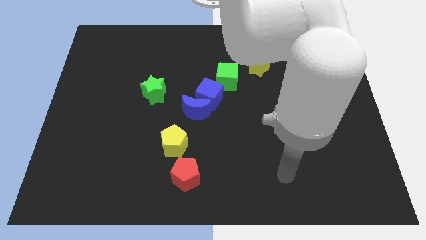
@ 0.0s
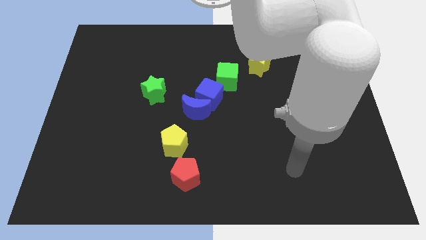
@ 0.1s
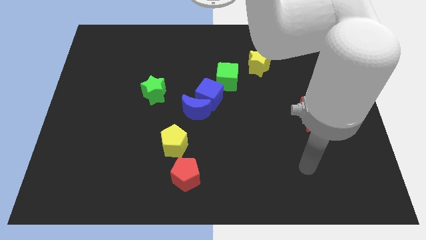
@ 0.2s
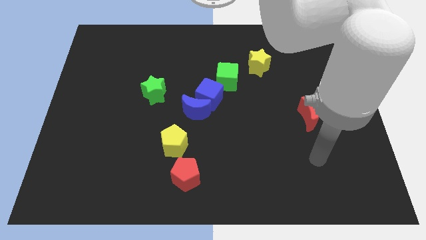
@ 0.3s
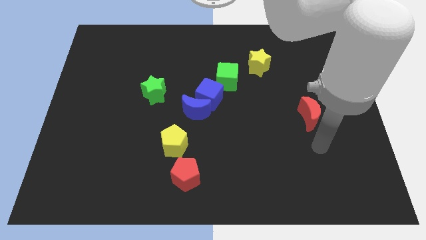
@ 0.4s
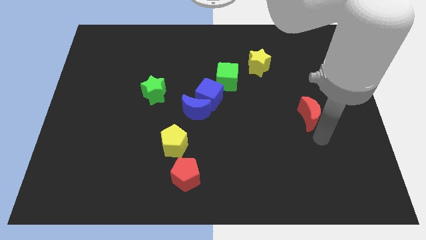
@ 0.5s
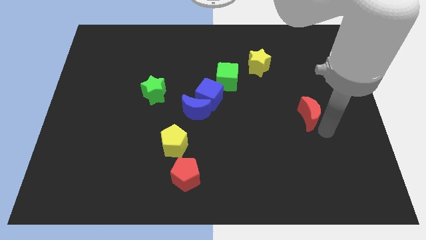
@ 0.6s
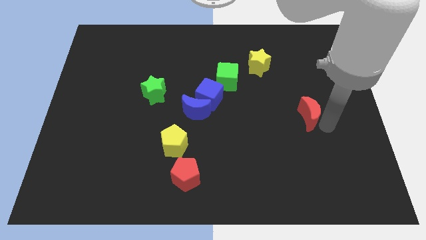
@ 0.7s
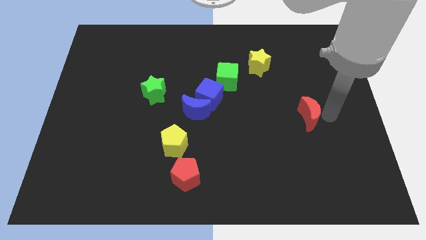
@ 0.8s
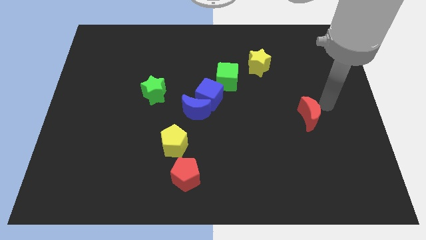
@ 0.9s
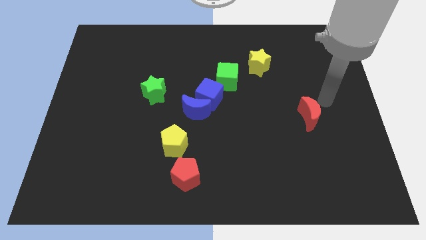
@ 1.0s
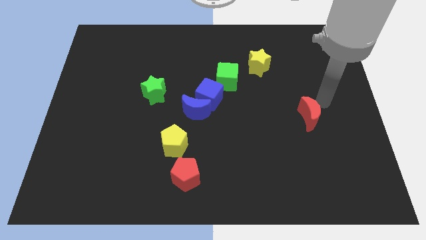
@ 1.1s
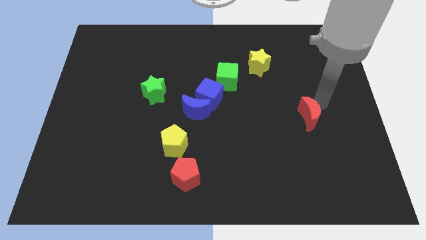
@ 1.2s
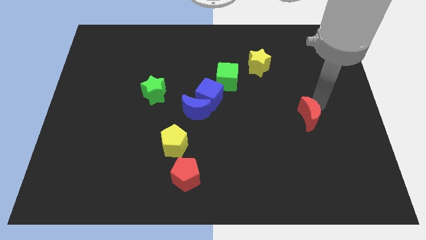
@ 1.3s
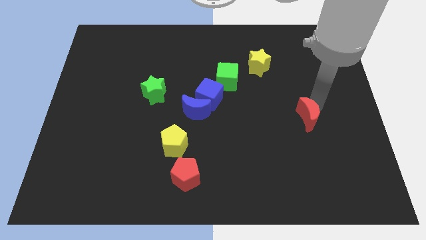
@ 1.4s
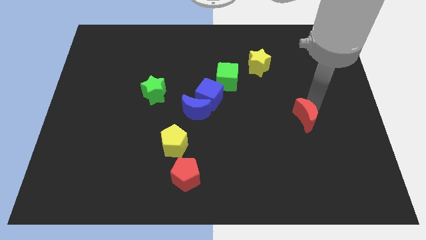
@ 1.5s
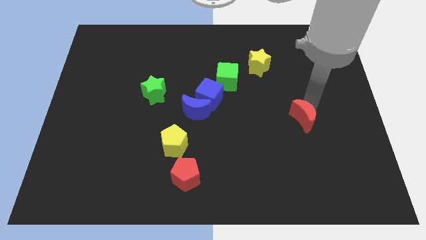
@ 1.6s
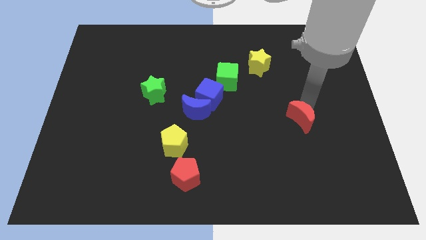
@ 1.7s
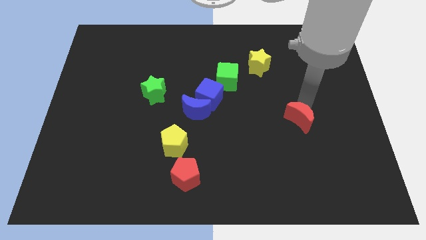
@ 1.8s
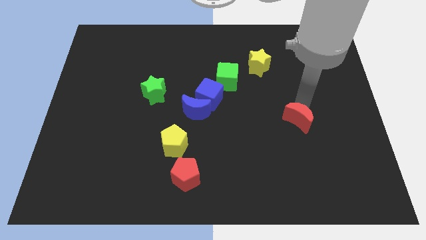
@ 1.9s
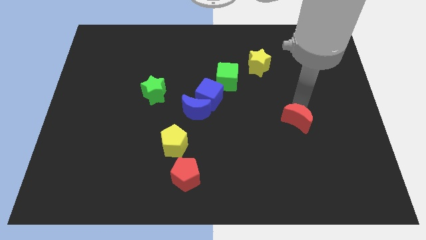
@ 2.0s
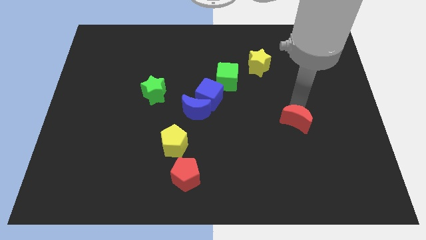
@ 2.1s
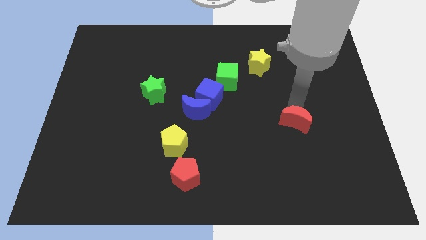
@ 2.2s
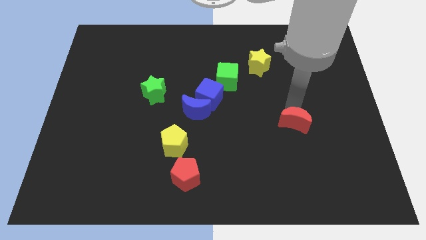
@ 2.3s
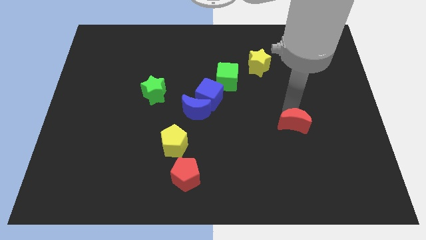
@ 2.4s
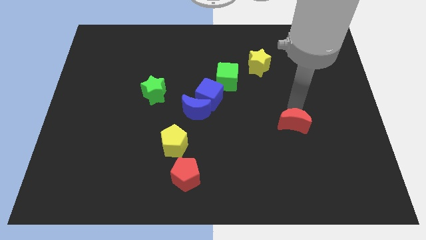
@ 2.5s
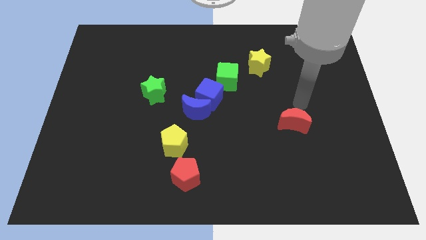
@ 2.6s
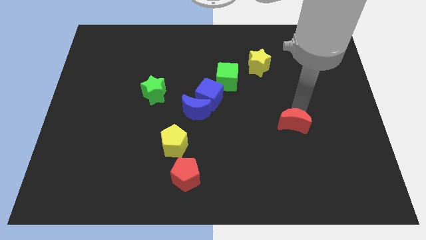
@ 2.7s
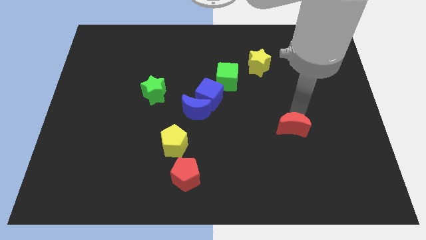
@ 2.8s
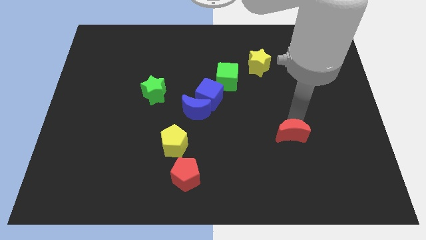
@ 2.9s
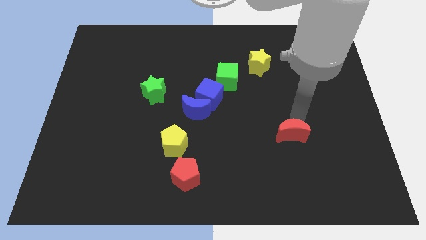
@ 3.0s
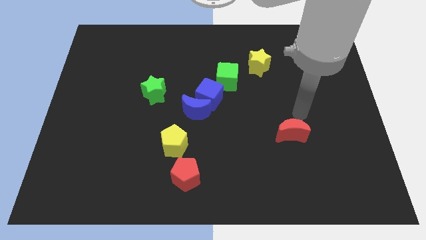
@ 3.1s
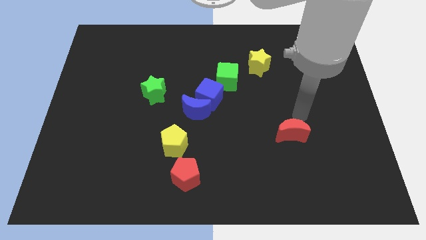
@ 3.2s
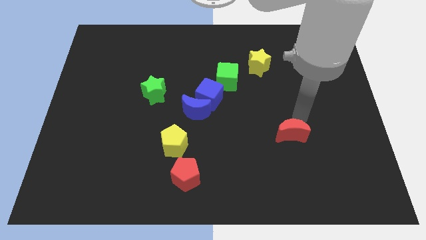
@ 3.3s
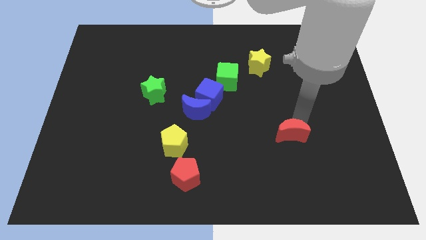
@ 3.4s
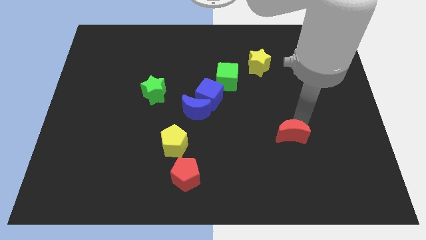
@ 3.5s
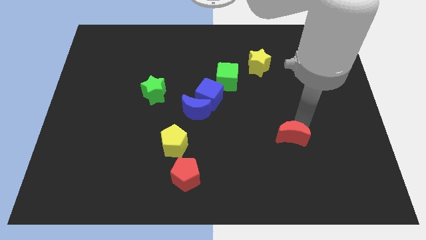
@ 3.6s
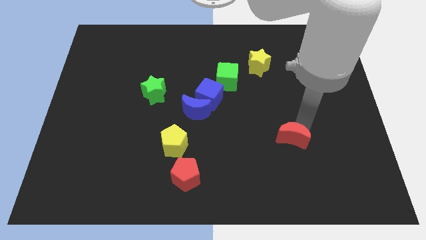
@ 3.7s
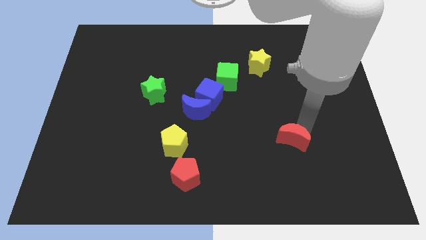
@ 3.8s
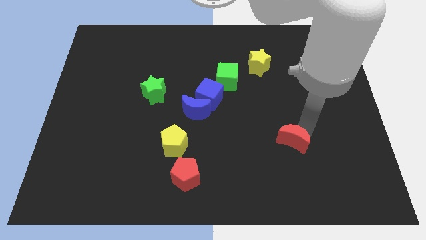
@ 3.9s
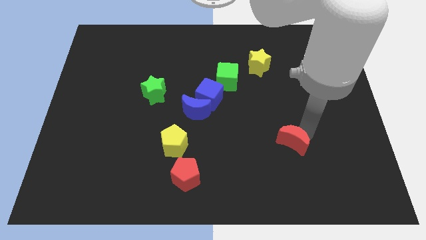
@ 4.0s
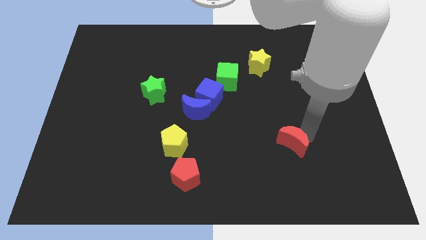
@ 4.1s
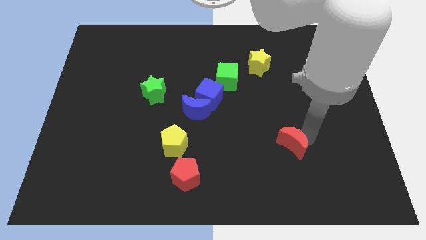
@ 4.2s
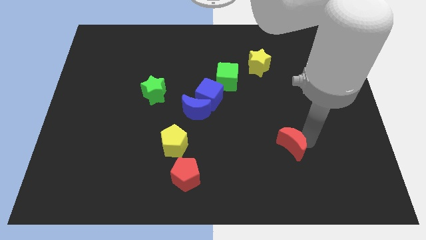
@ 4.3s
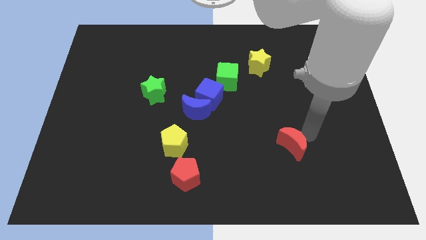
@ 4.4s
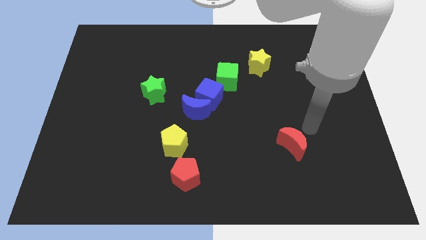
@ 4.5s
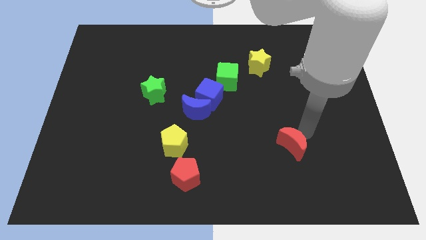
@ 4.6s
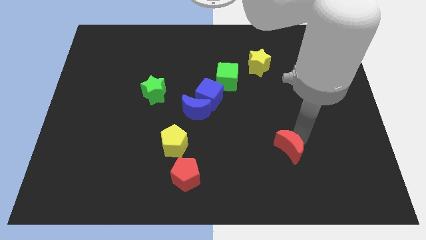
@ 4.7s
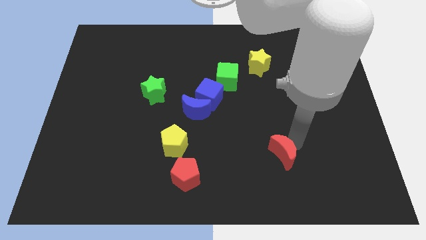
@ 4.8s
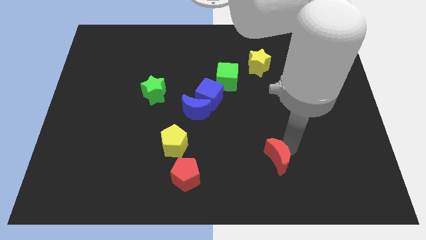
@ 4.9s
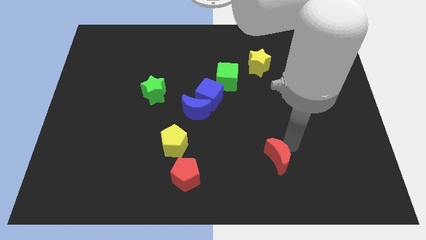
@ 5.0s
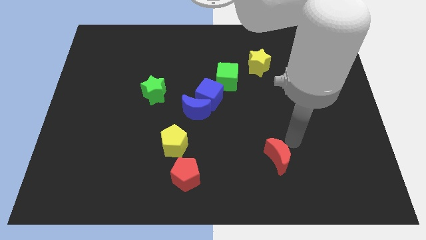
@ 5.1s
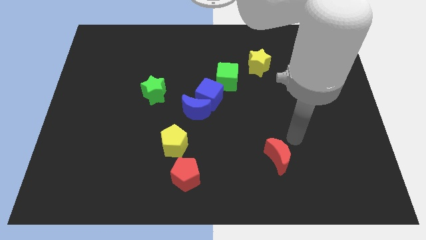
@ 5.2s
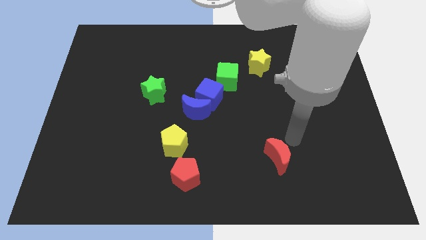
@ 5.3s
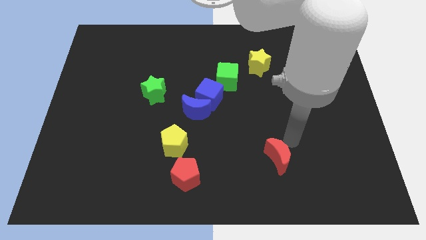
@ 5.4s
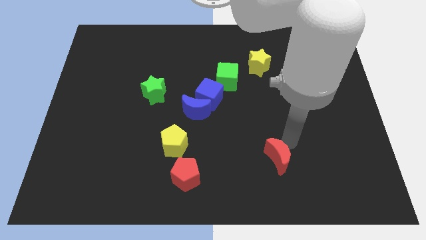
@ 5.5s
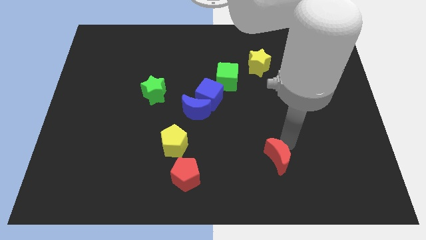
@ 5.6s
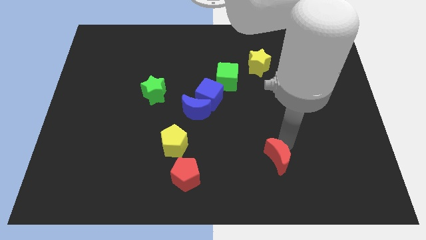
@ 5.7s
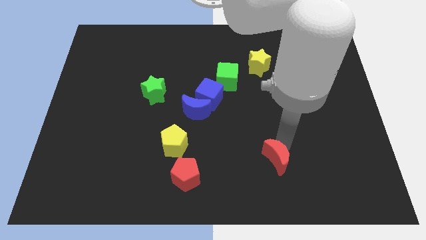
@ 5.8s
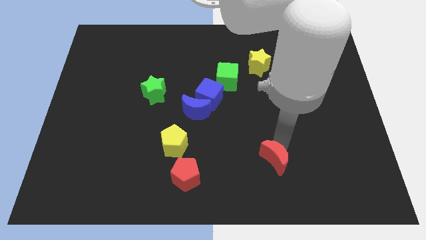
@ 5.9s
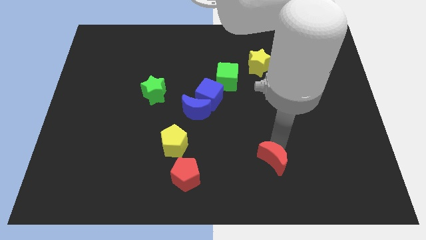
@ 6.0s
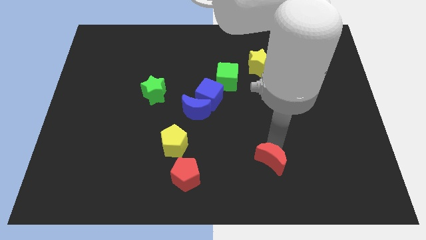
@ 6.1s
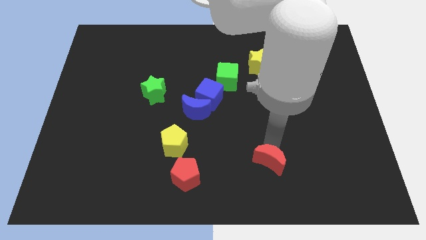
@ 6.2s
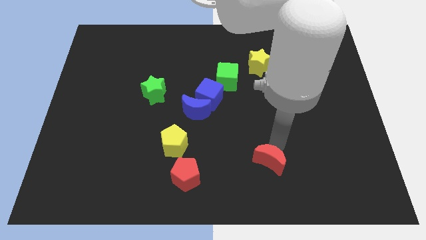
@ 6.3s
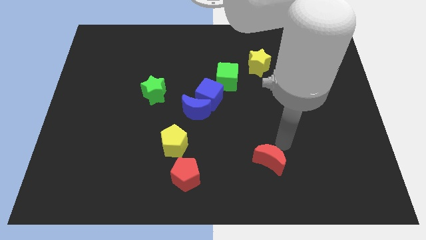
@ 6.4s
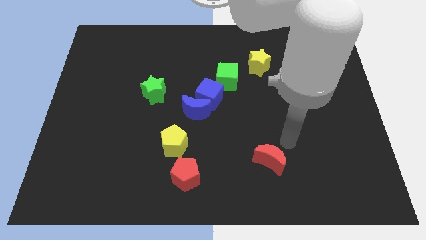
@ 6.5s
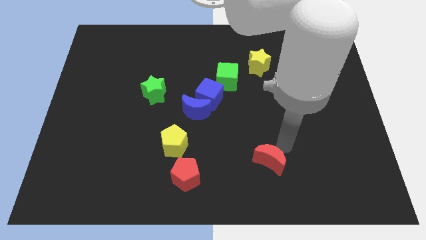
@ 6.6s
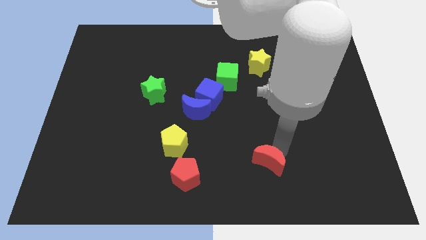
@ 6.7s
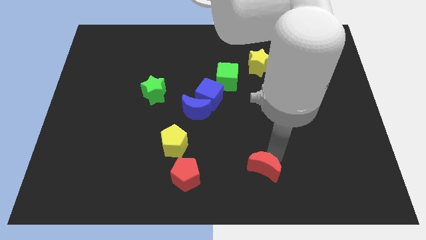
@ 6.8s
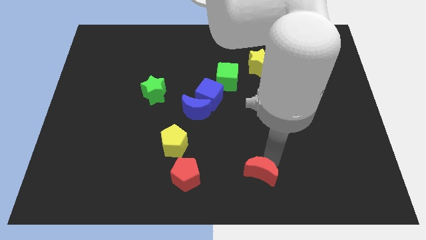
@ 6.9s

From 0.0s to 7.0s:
move the red moon to the bottom side

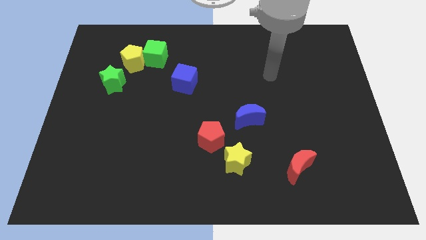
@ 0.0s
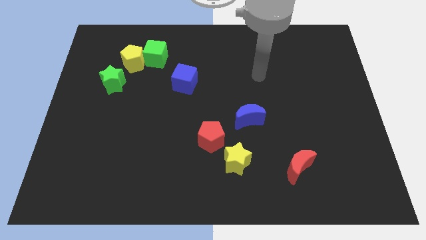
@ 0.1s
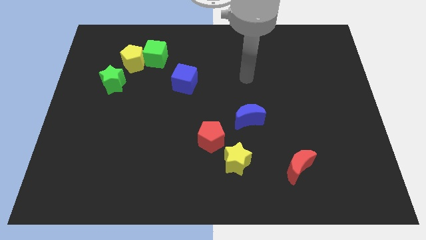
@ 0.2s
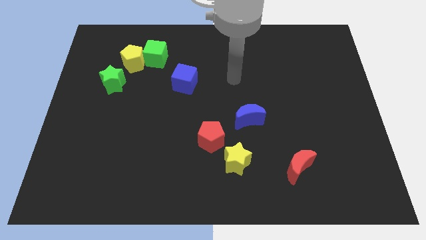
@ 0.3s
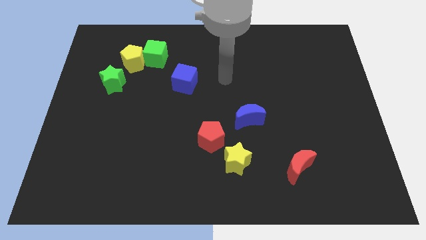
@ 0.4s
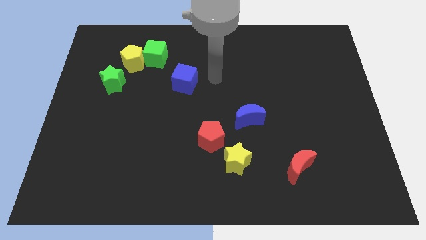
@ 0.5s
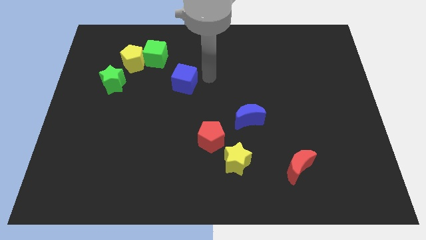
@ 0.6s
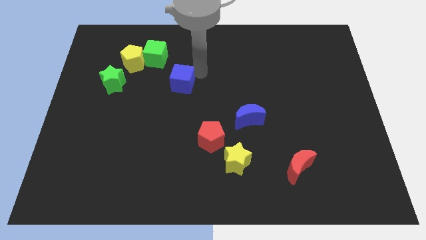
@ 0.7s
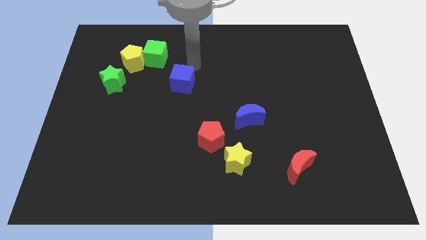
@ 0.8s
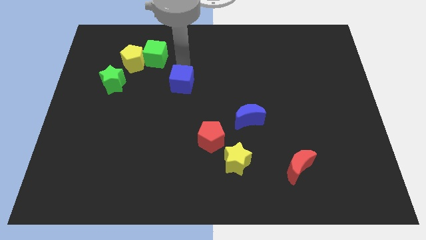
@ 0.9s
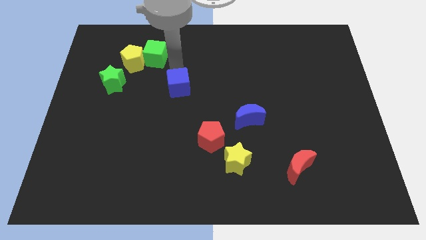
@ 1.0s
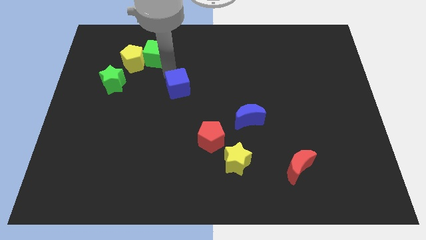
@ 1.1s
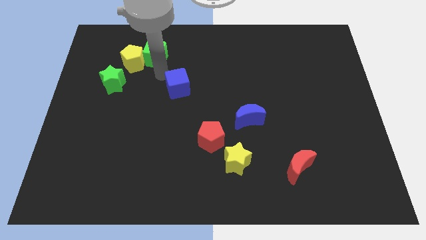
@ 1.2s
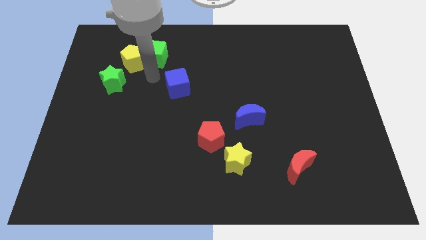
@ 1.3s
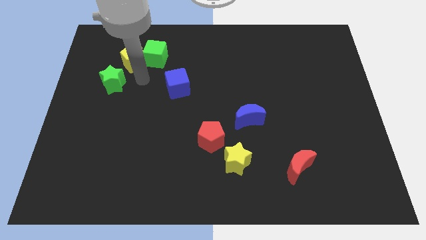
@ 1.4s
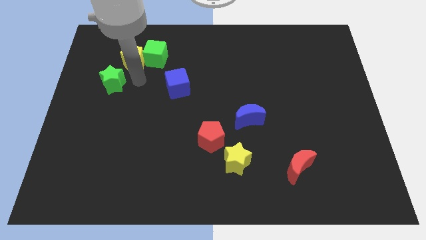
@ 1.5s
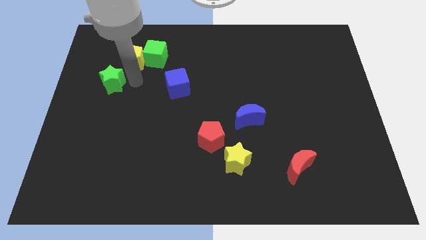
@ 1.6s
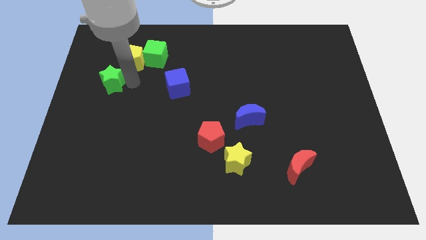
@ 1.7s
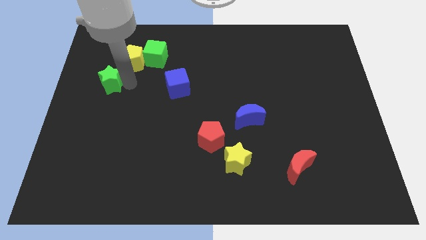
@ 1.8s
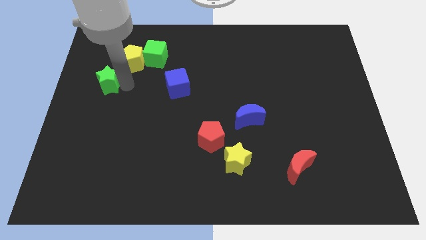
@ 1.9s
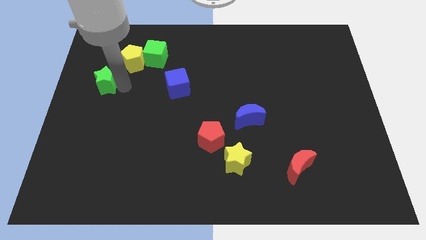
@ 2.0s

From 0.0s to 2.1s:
put the green star to the left side
